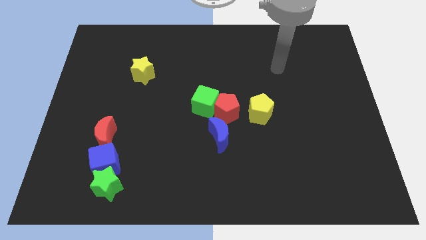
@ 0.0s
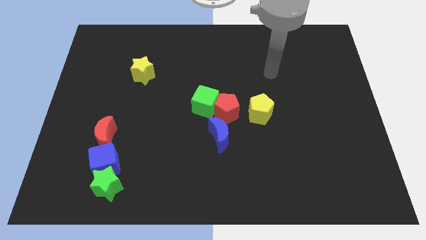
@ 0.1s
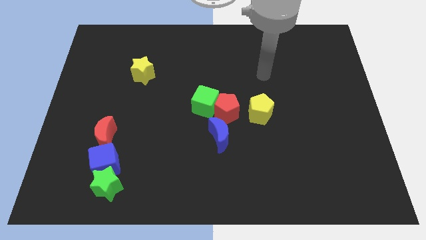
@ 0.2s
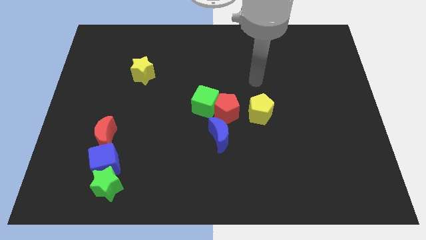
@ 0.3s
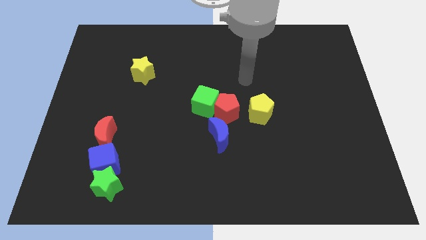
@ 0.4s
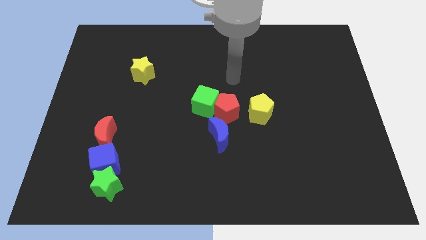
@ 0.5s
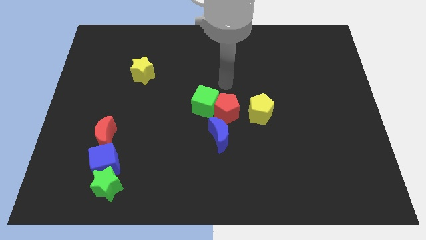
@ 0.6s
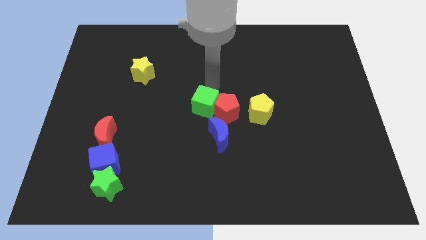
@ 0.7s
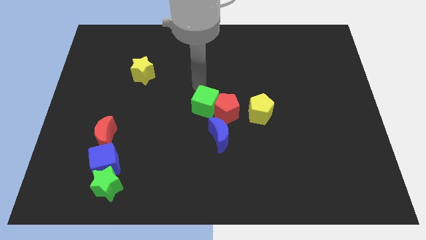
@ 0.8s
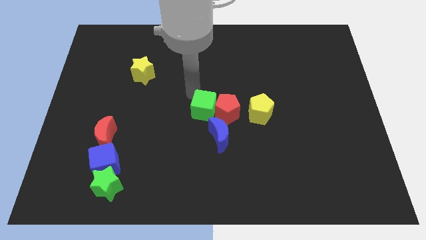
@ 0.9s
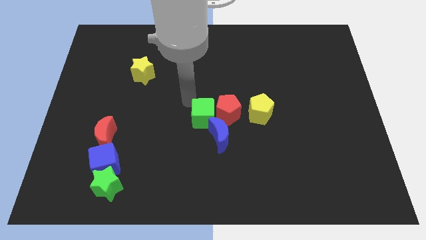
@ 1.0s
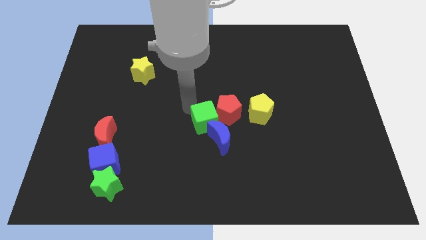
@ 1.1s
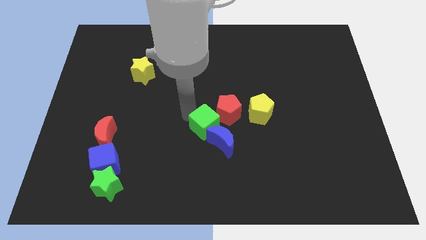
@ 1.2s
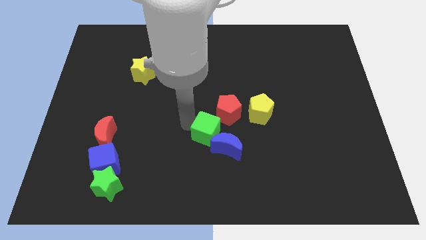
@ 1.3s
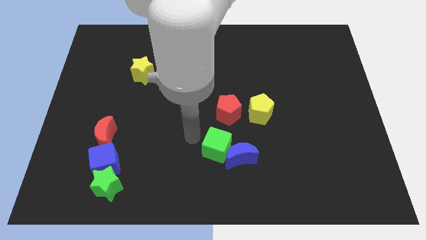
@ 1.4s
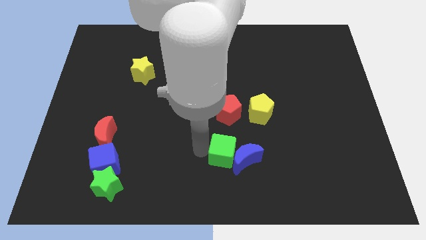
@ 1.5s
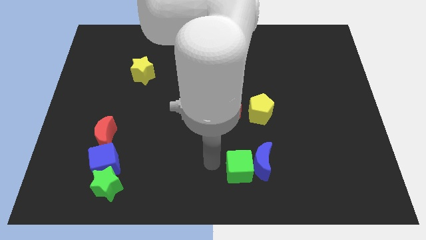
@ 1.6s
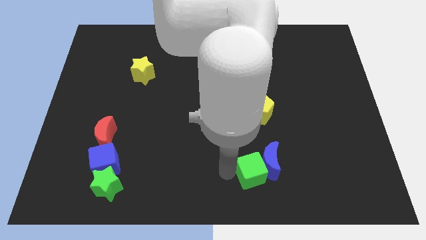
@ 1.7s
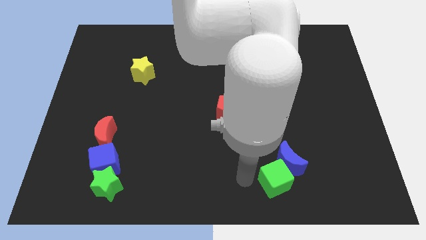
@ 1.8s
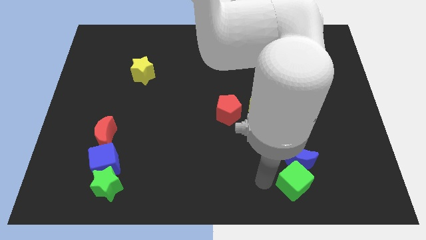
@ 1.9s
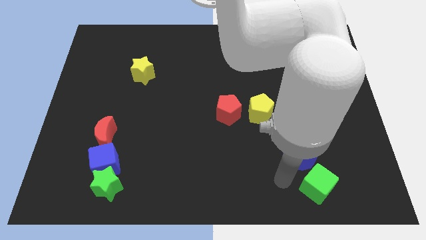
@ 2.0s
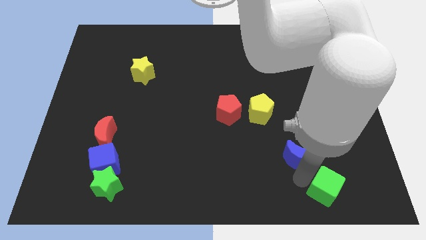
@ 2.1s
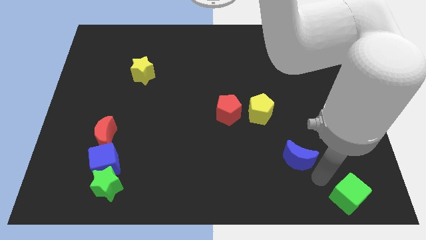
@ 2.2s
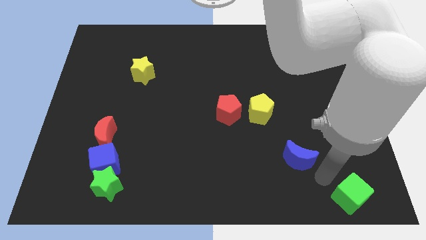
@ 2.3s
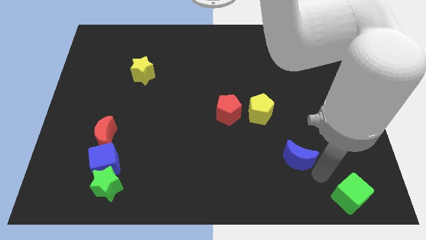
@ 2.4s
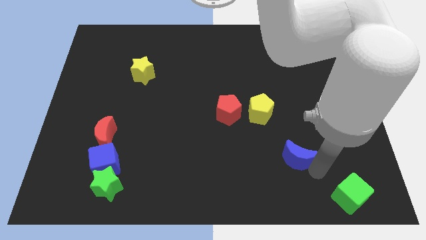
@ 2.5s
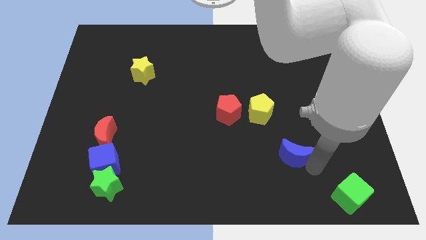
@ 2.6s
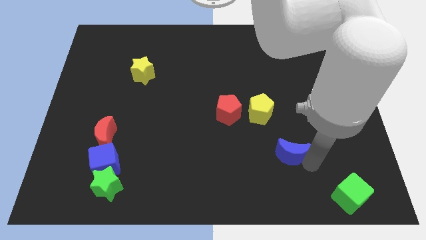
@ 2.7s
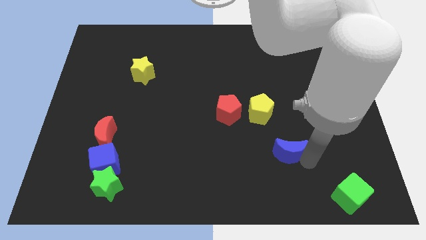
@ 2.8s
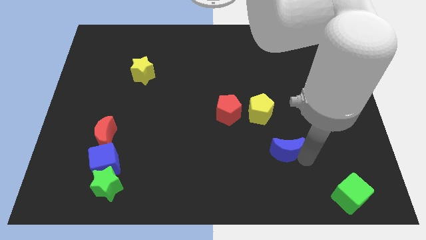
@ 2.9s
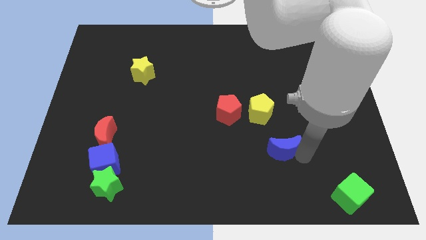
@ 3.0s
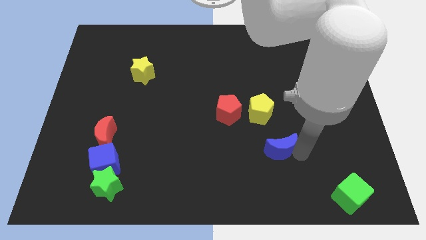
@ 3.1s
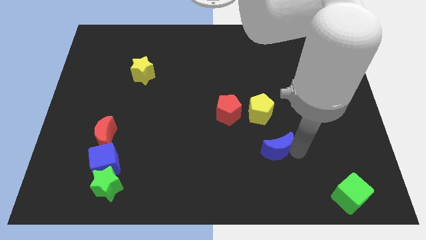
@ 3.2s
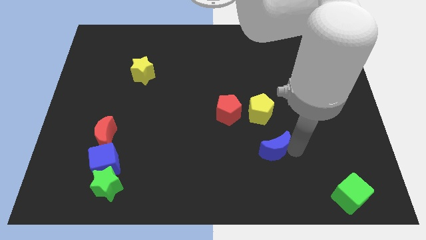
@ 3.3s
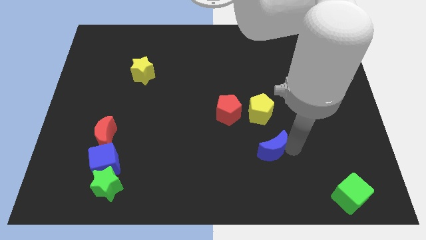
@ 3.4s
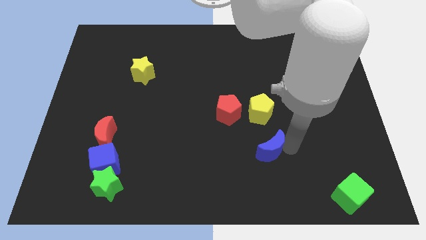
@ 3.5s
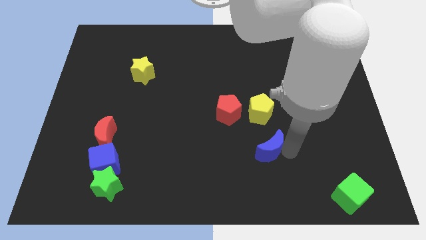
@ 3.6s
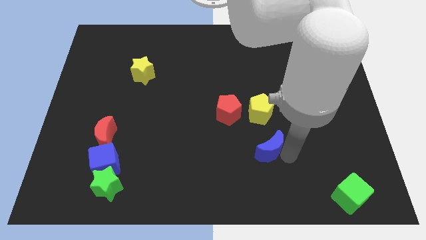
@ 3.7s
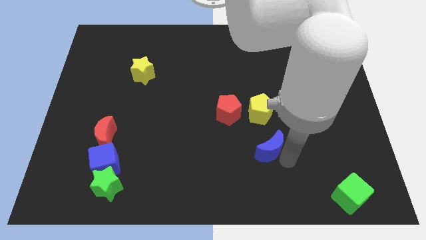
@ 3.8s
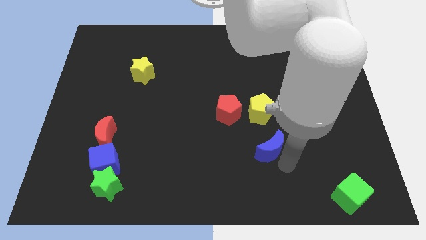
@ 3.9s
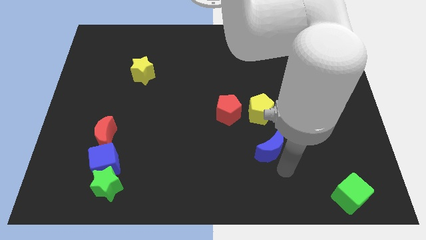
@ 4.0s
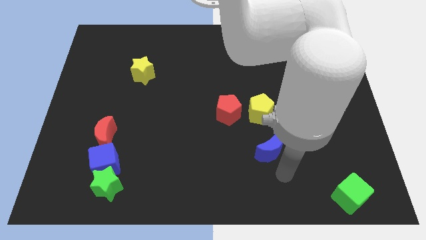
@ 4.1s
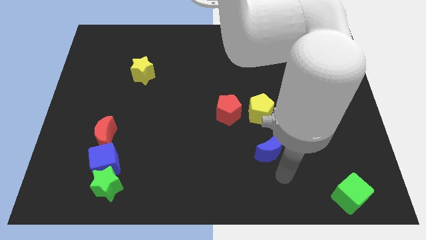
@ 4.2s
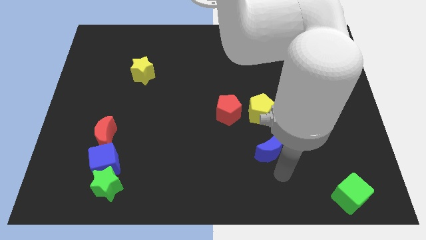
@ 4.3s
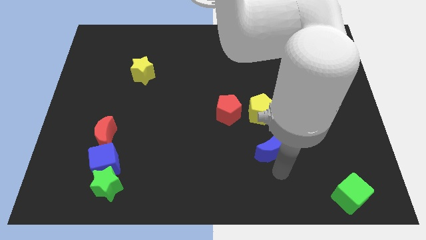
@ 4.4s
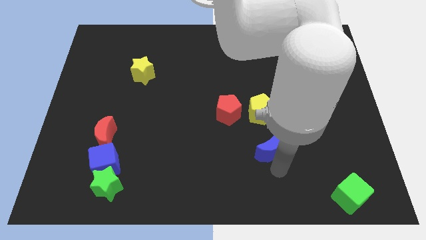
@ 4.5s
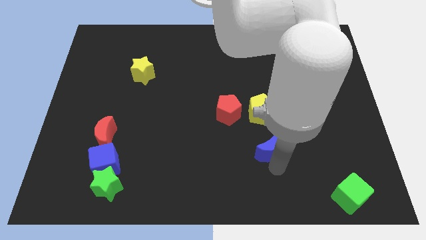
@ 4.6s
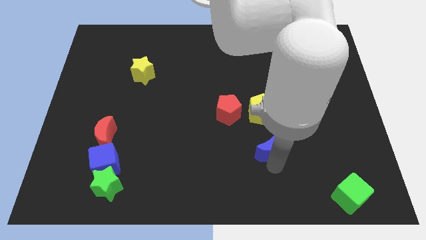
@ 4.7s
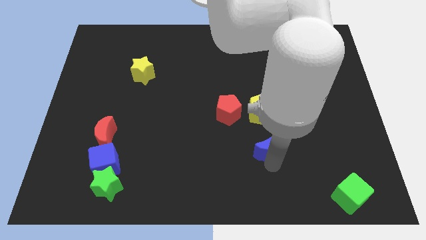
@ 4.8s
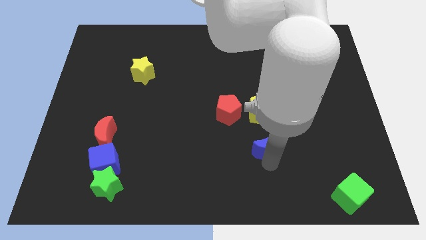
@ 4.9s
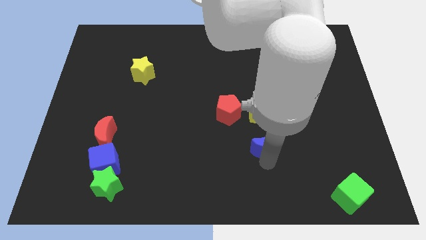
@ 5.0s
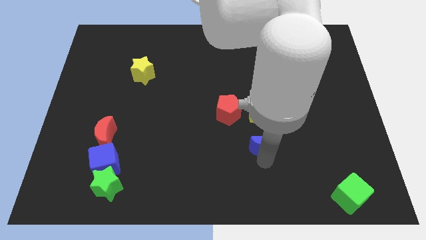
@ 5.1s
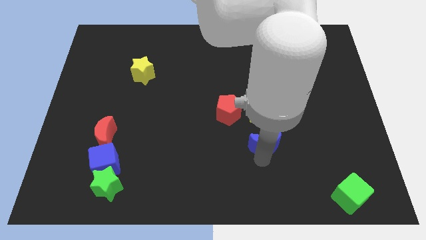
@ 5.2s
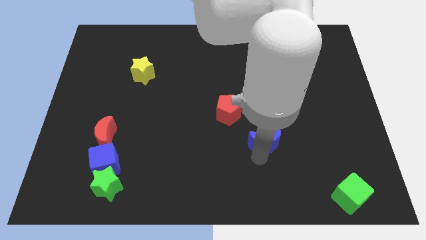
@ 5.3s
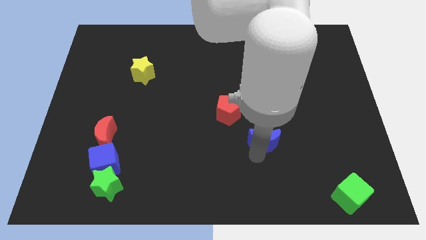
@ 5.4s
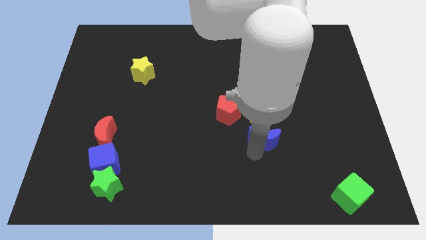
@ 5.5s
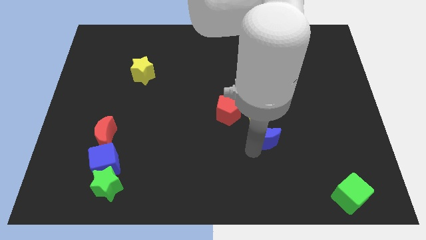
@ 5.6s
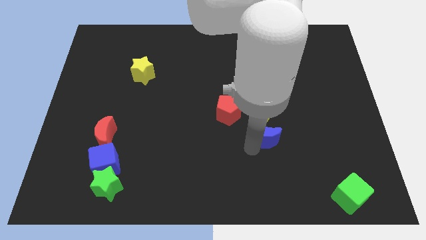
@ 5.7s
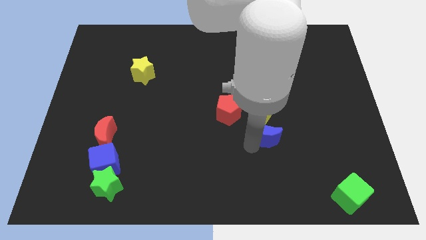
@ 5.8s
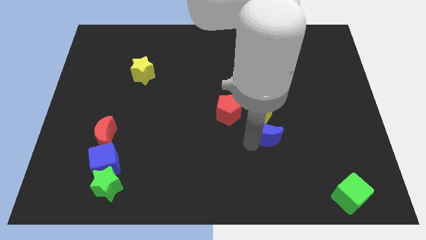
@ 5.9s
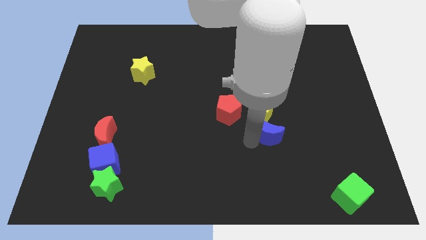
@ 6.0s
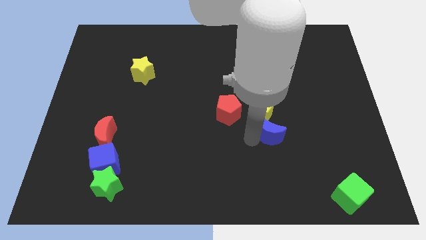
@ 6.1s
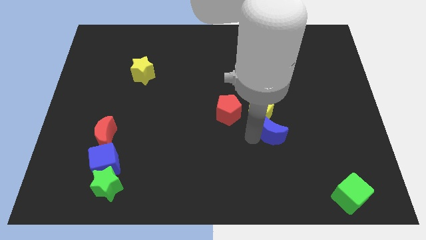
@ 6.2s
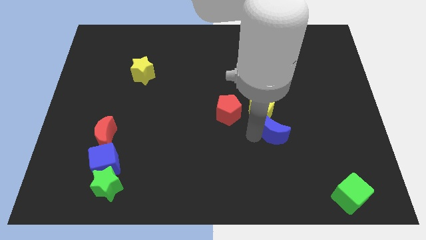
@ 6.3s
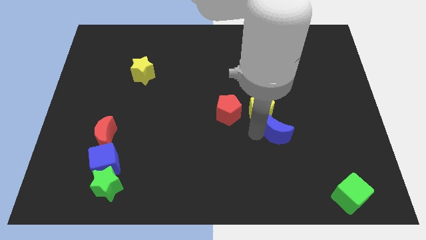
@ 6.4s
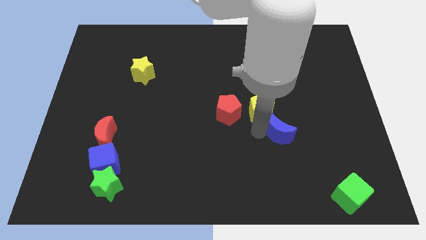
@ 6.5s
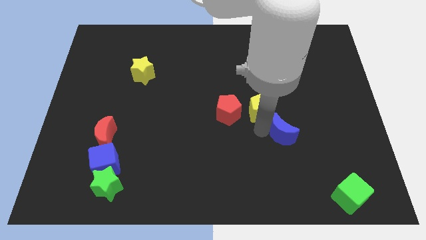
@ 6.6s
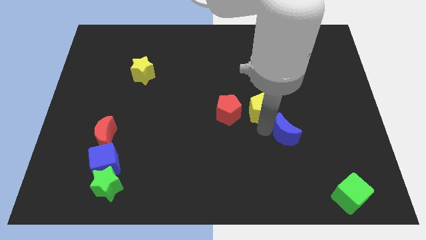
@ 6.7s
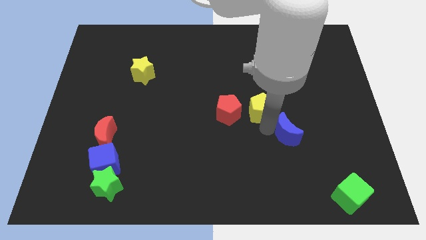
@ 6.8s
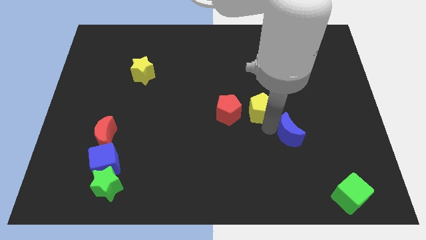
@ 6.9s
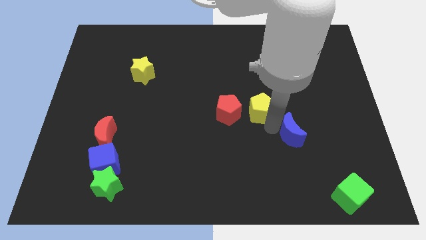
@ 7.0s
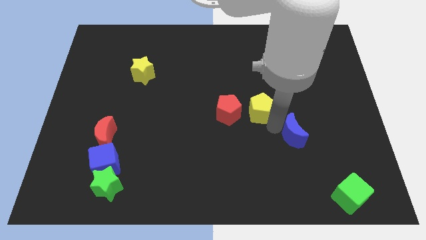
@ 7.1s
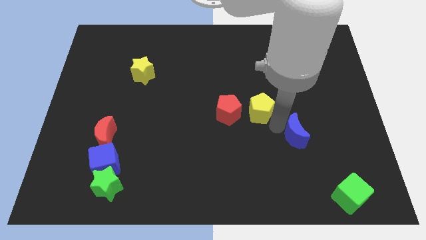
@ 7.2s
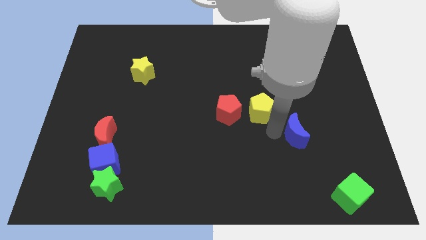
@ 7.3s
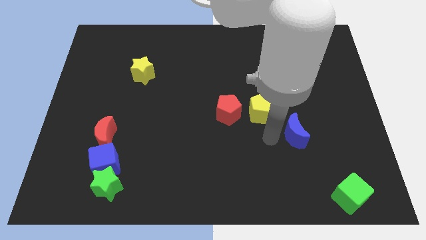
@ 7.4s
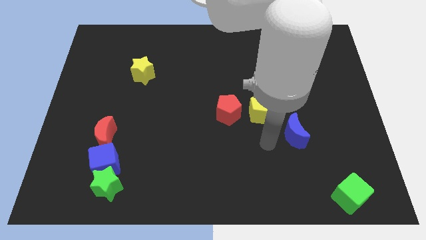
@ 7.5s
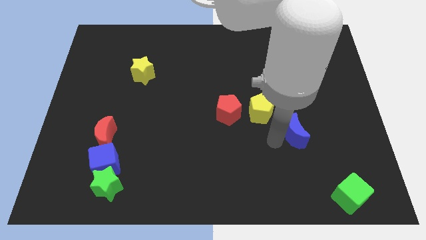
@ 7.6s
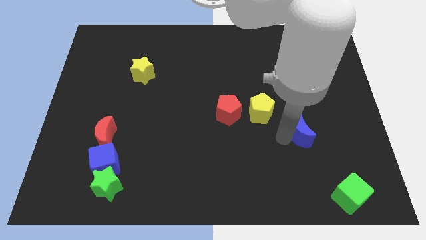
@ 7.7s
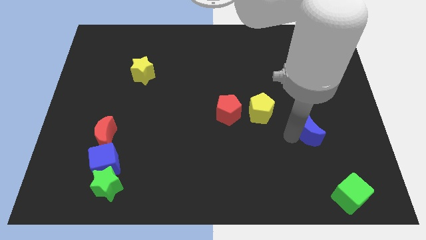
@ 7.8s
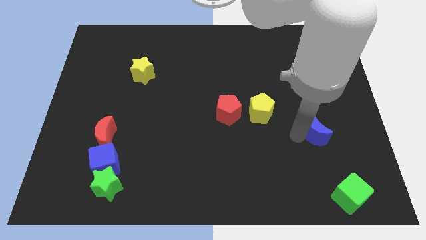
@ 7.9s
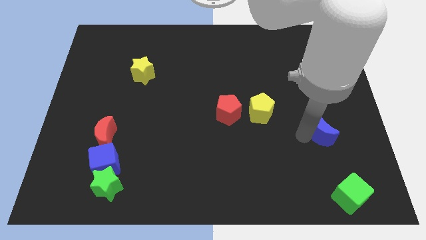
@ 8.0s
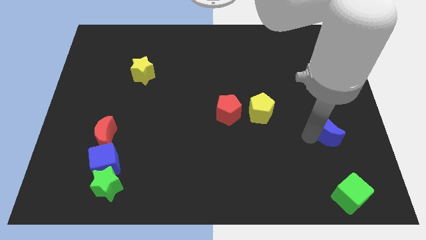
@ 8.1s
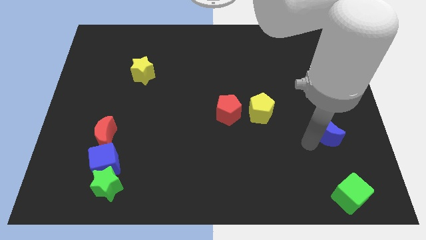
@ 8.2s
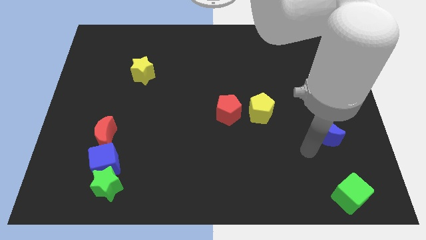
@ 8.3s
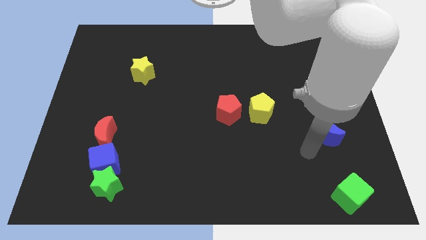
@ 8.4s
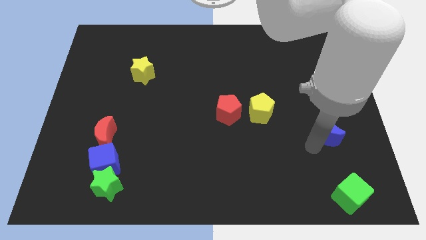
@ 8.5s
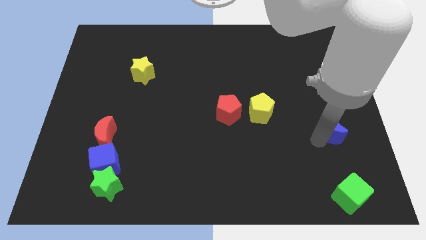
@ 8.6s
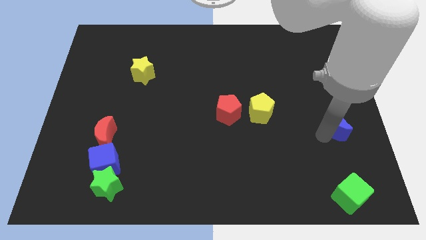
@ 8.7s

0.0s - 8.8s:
slide the blue moon to the right side
